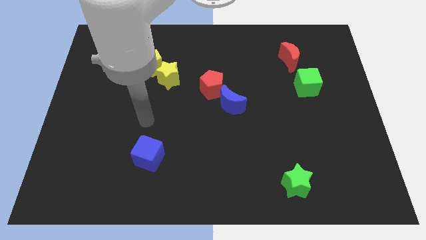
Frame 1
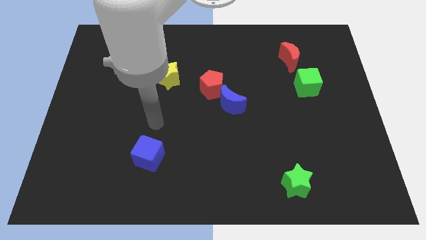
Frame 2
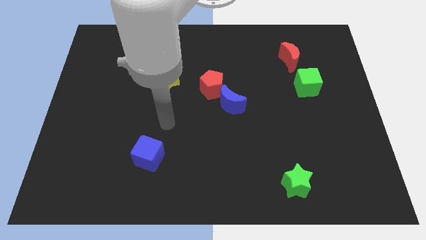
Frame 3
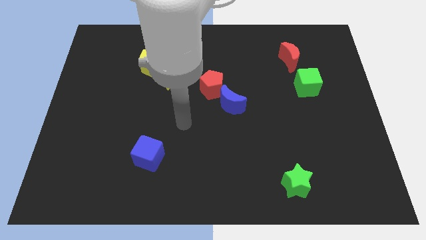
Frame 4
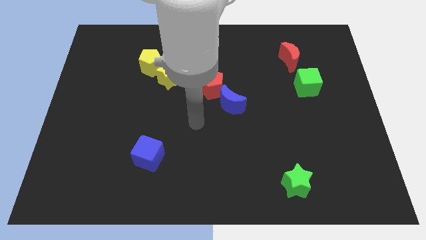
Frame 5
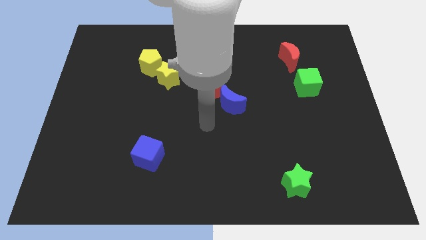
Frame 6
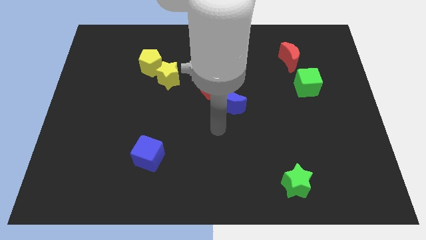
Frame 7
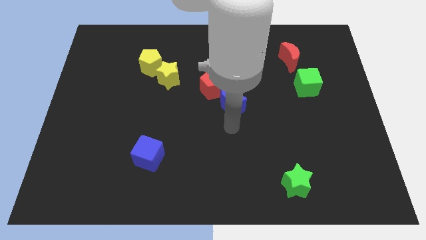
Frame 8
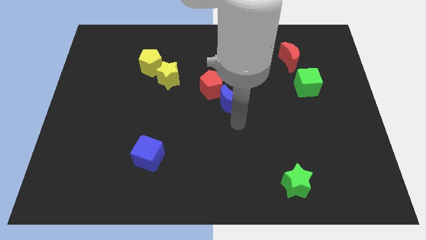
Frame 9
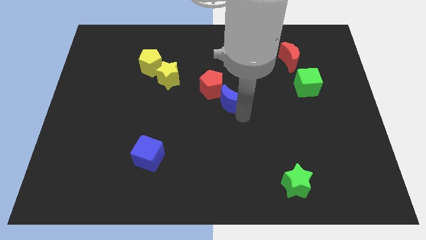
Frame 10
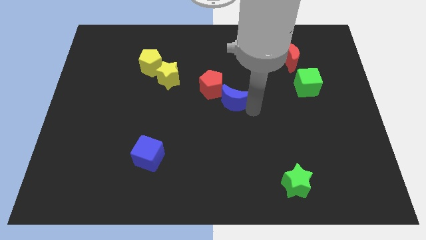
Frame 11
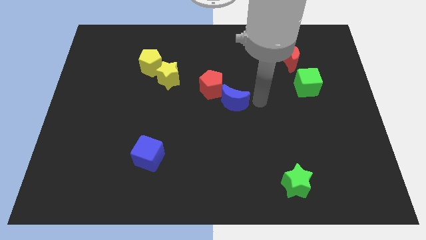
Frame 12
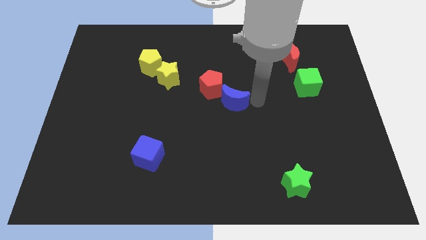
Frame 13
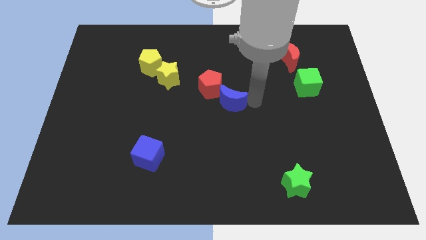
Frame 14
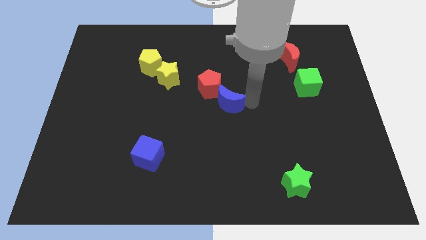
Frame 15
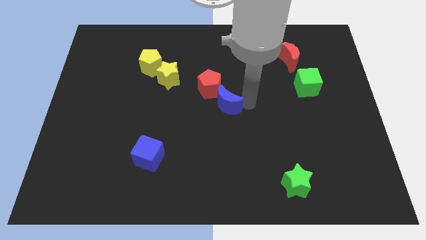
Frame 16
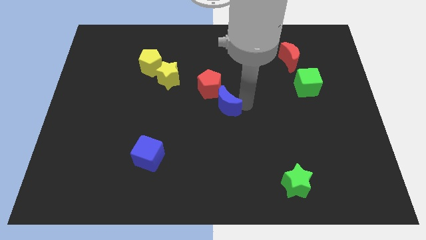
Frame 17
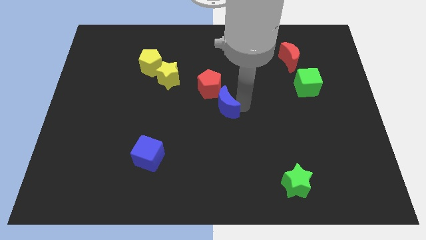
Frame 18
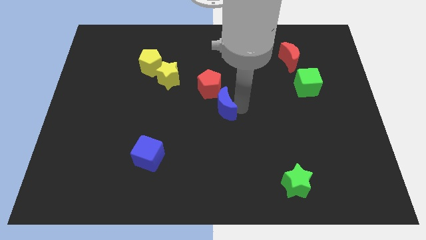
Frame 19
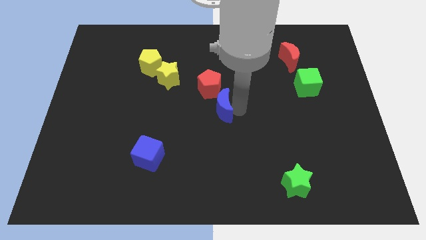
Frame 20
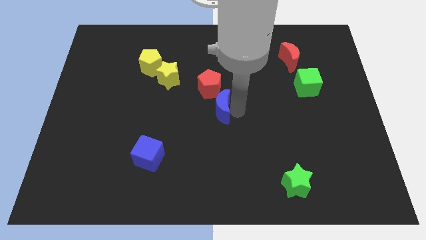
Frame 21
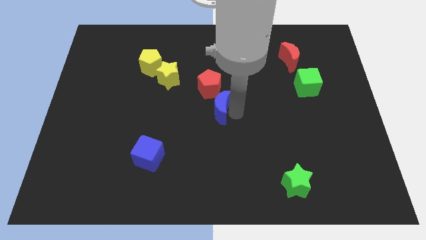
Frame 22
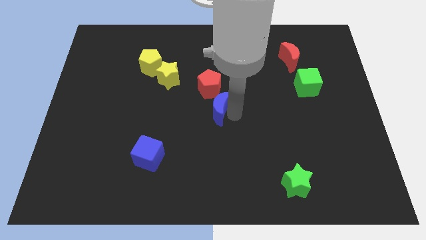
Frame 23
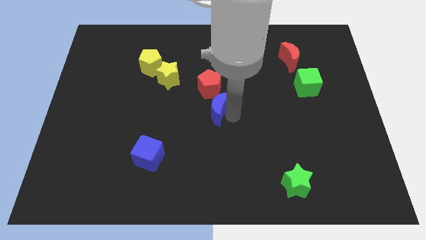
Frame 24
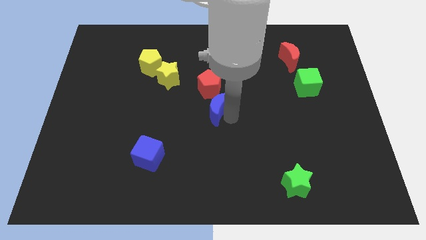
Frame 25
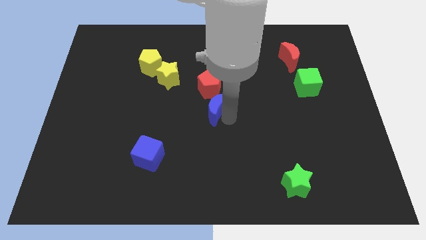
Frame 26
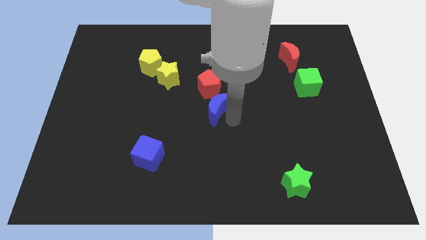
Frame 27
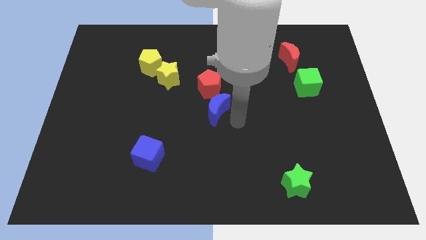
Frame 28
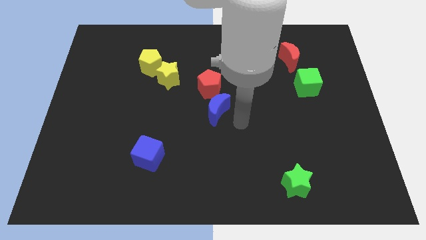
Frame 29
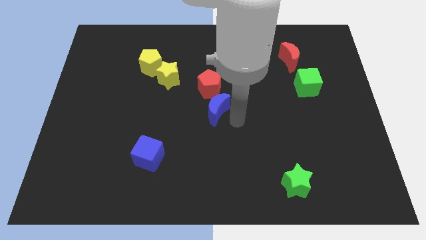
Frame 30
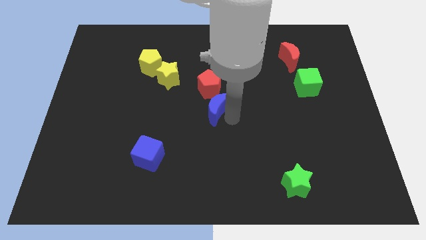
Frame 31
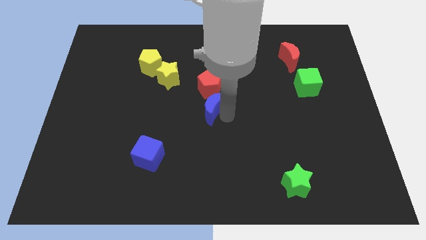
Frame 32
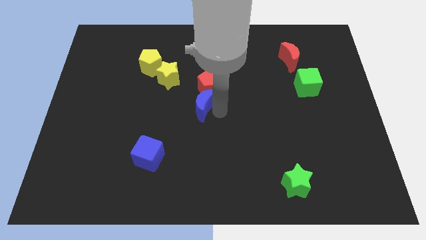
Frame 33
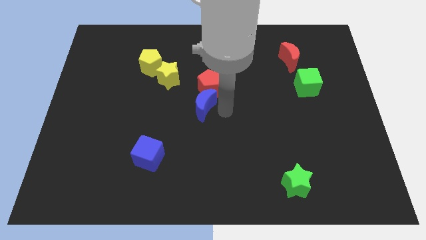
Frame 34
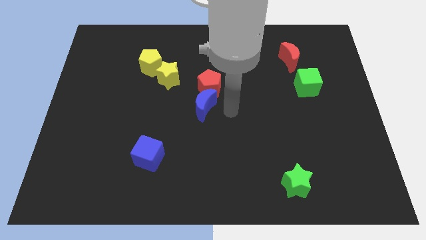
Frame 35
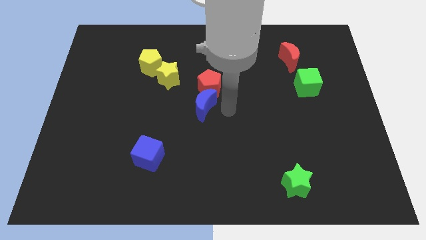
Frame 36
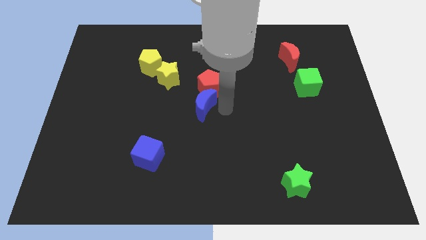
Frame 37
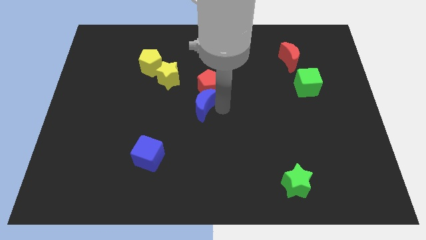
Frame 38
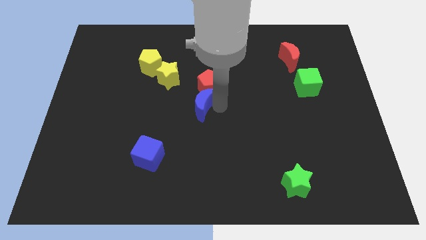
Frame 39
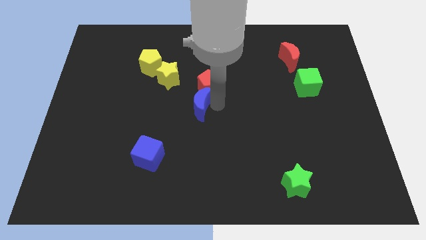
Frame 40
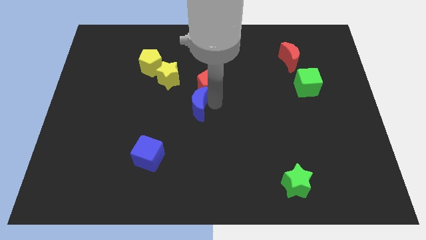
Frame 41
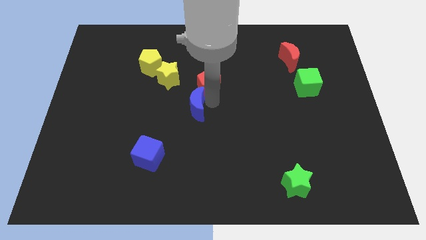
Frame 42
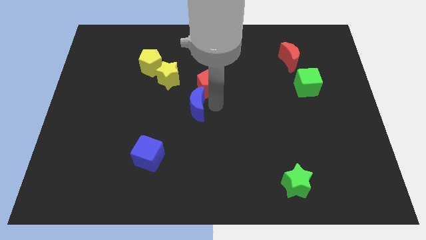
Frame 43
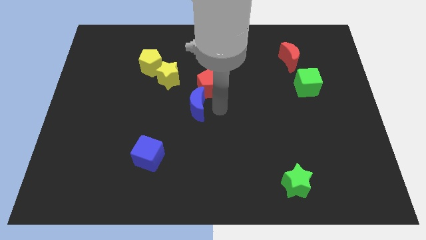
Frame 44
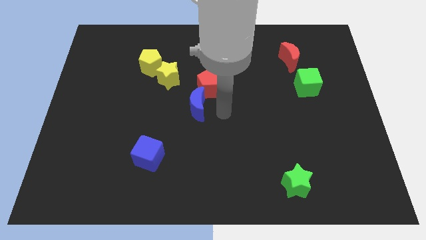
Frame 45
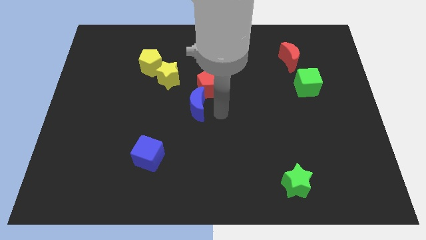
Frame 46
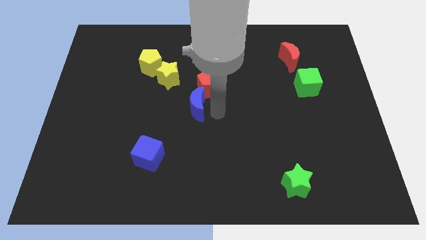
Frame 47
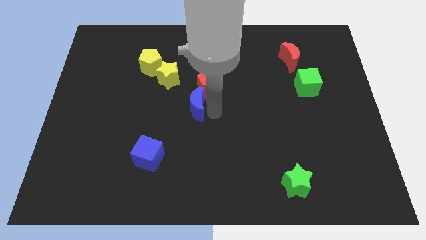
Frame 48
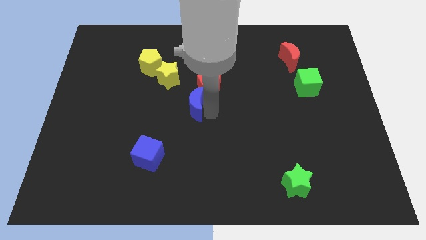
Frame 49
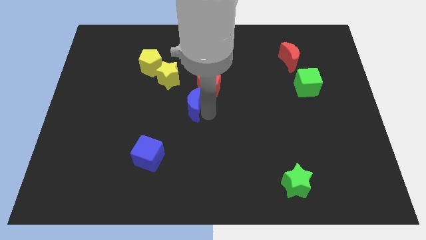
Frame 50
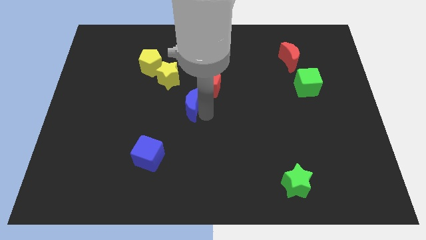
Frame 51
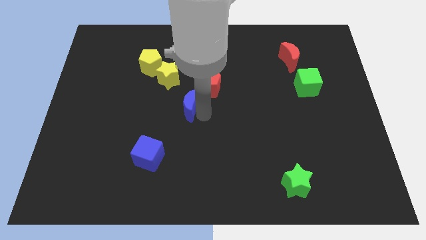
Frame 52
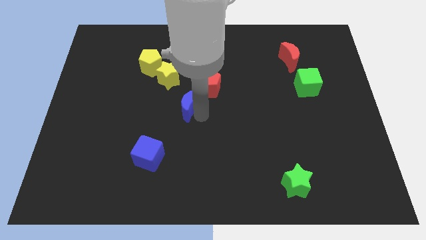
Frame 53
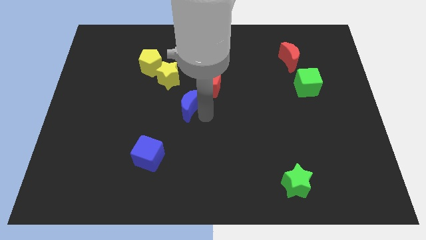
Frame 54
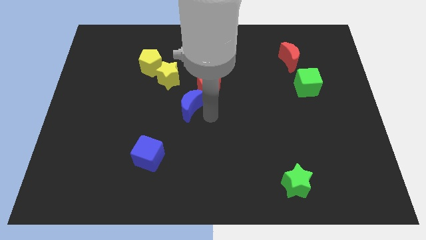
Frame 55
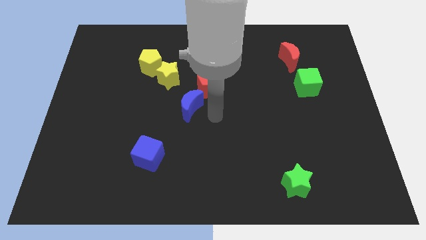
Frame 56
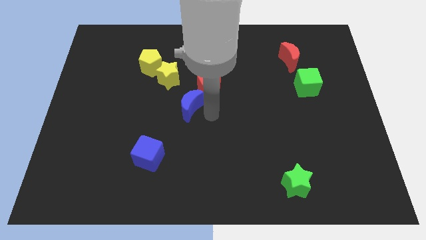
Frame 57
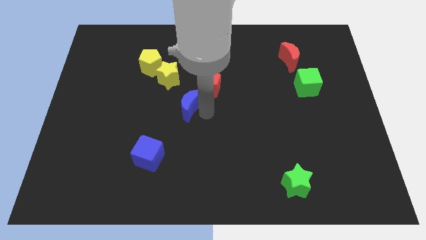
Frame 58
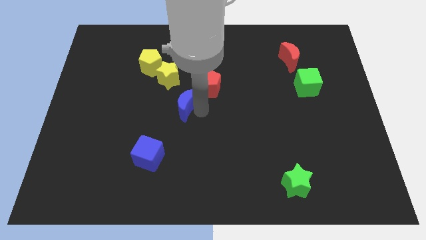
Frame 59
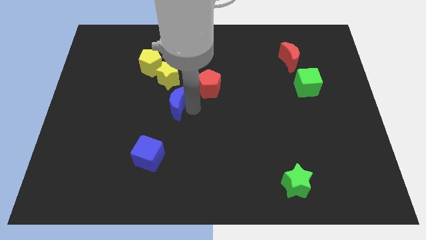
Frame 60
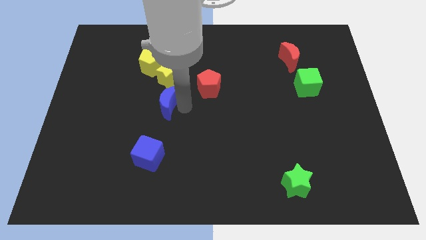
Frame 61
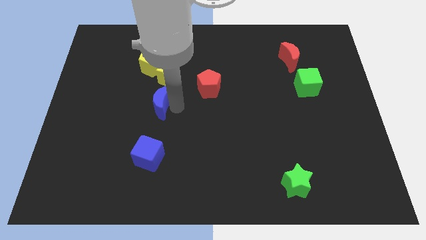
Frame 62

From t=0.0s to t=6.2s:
put the blue moon to the bottom left side of the yellow star
